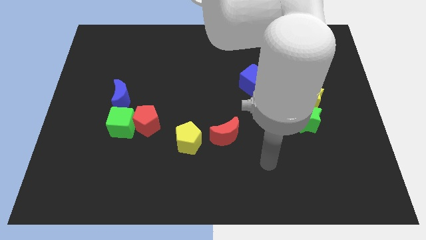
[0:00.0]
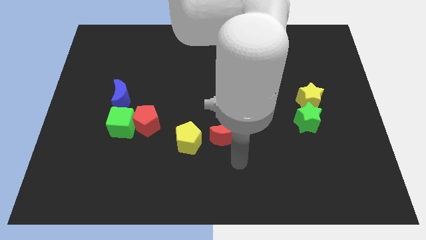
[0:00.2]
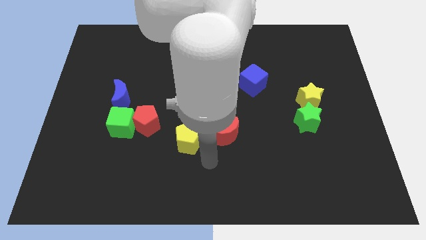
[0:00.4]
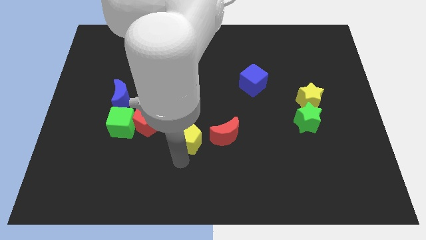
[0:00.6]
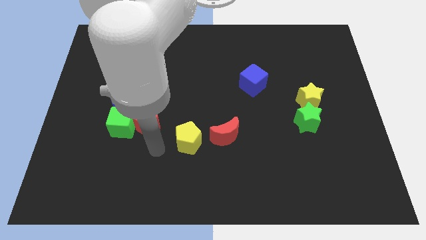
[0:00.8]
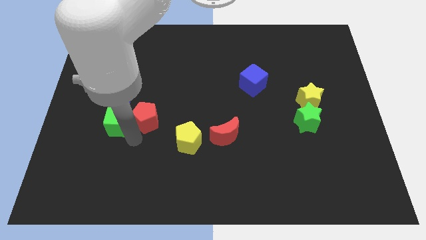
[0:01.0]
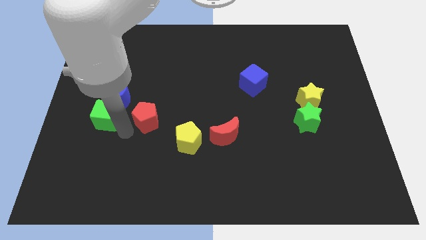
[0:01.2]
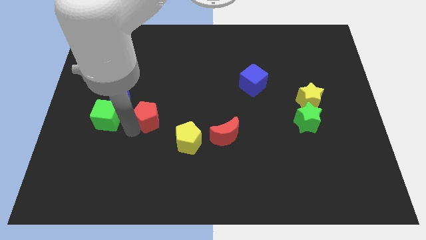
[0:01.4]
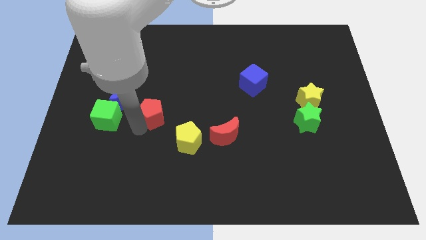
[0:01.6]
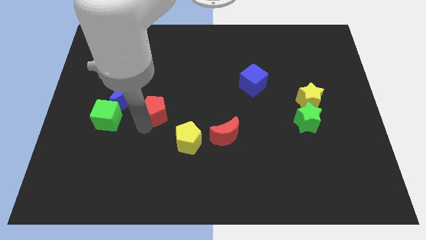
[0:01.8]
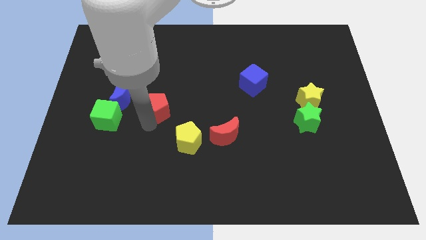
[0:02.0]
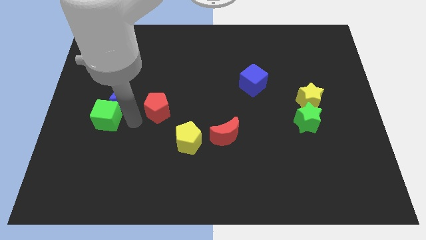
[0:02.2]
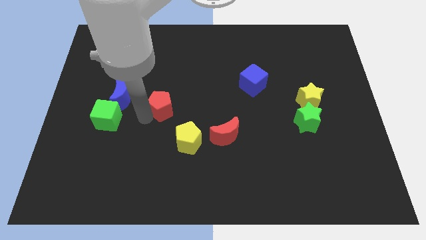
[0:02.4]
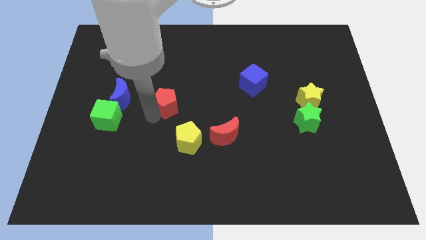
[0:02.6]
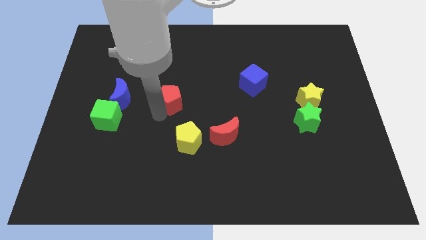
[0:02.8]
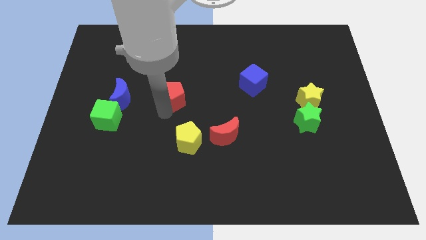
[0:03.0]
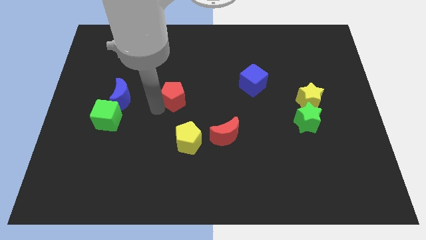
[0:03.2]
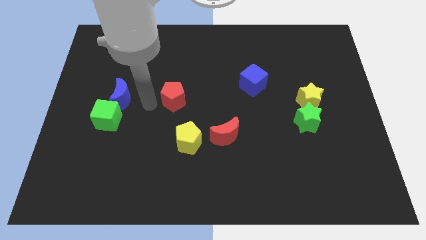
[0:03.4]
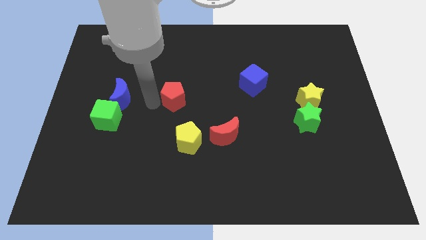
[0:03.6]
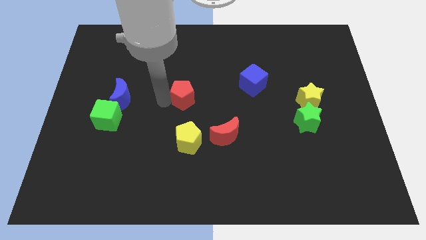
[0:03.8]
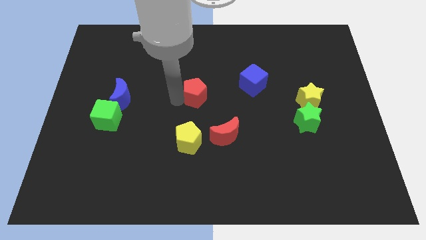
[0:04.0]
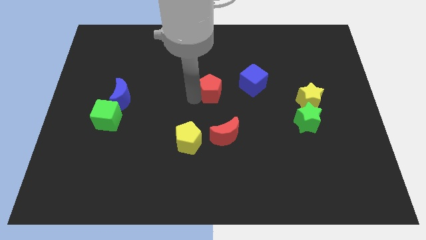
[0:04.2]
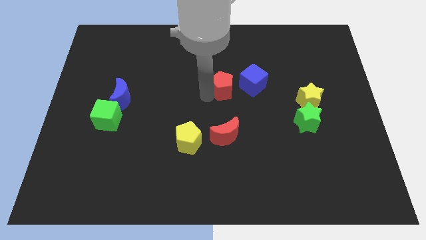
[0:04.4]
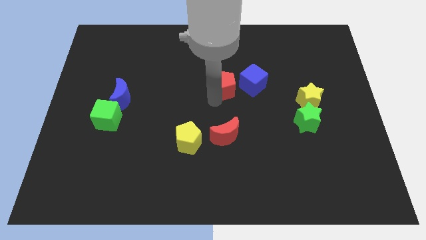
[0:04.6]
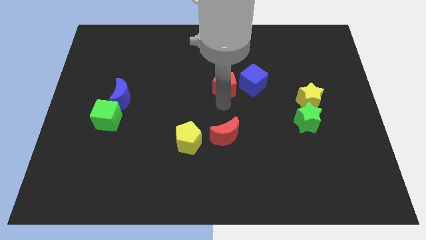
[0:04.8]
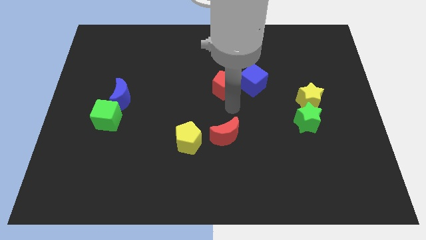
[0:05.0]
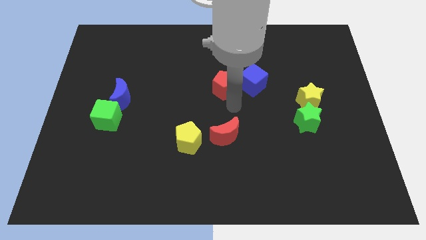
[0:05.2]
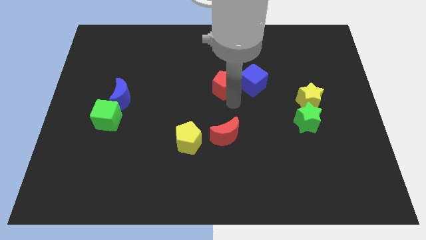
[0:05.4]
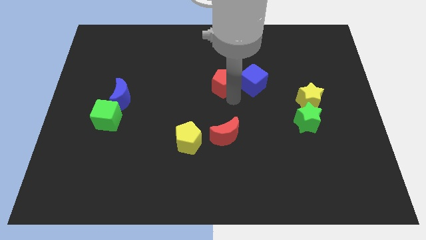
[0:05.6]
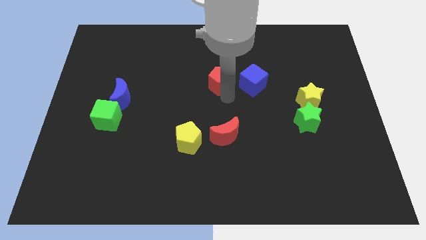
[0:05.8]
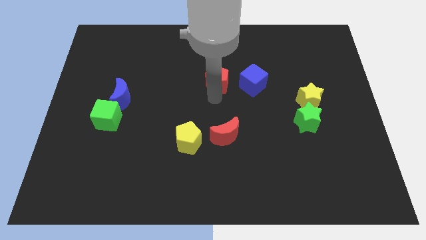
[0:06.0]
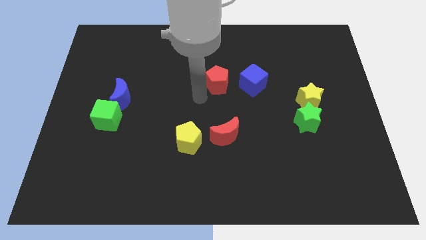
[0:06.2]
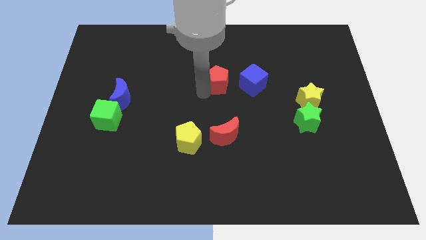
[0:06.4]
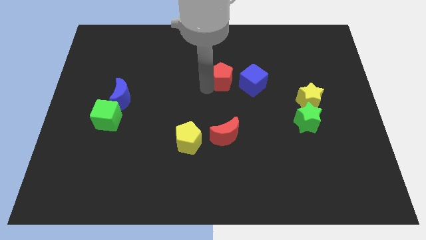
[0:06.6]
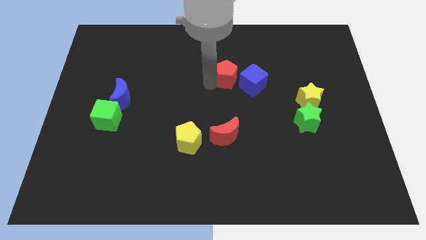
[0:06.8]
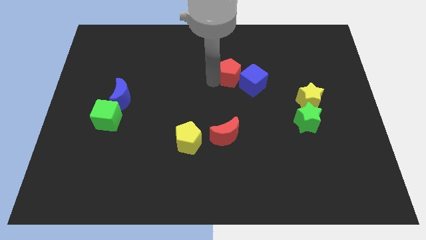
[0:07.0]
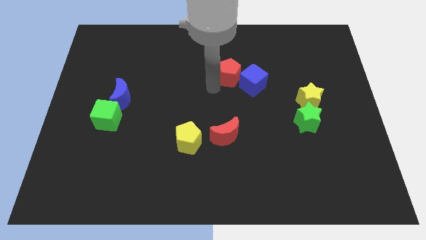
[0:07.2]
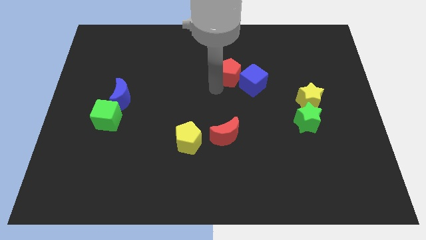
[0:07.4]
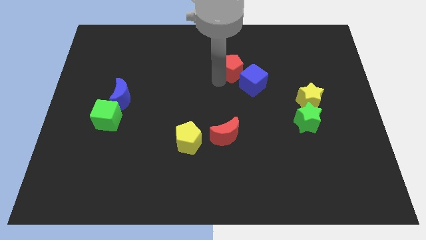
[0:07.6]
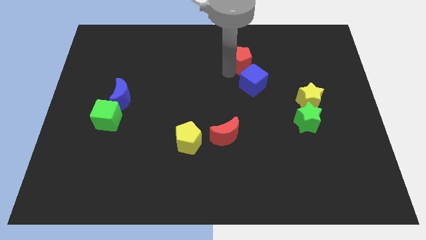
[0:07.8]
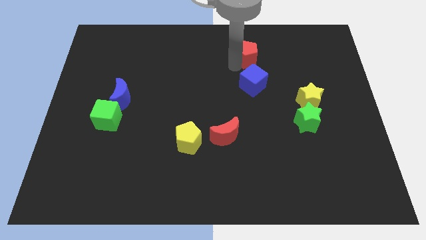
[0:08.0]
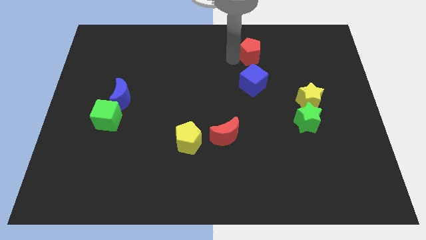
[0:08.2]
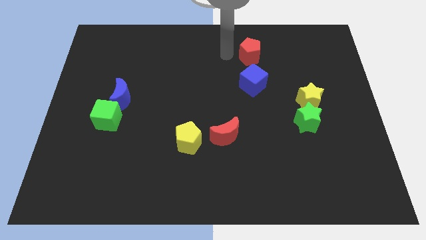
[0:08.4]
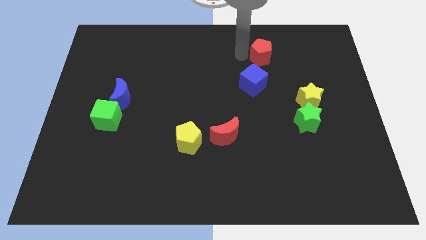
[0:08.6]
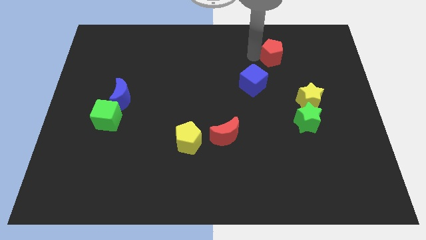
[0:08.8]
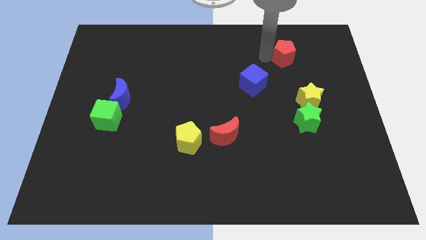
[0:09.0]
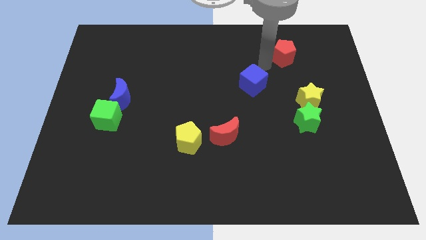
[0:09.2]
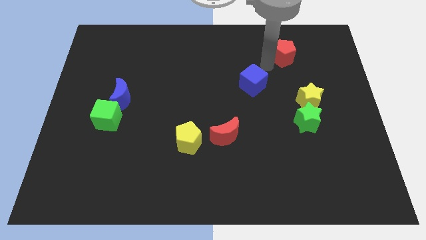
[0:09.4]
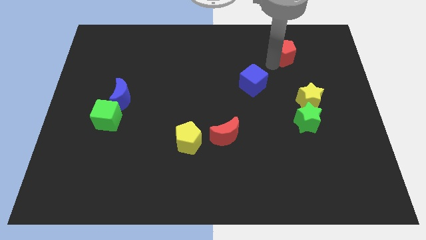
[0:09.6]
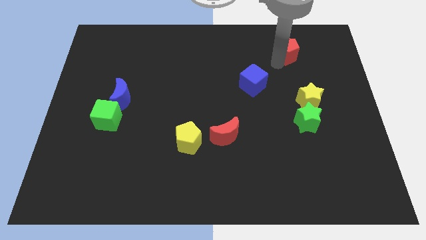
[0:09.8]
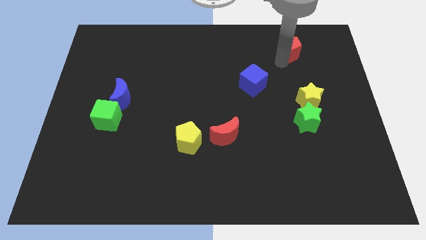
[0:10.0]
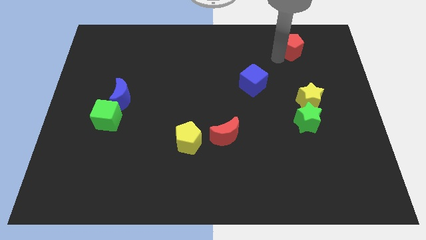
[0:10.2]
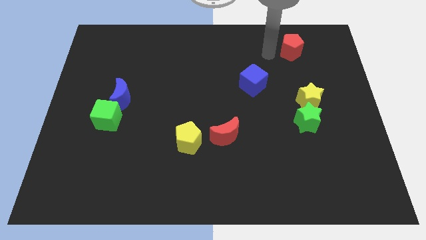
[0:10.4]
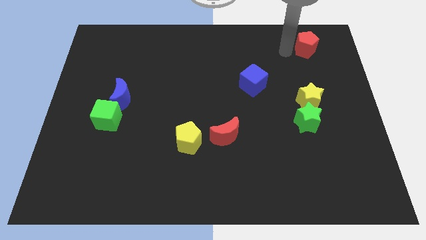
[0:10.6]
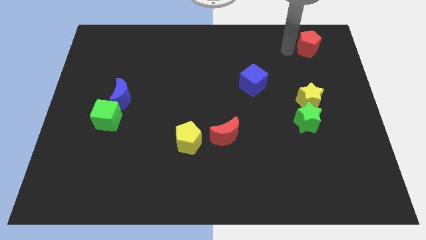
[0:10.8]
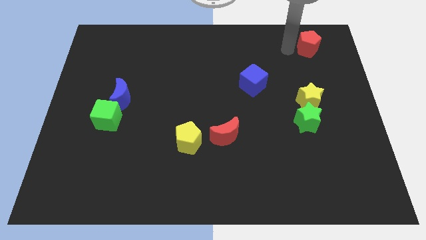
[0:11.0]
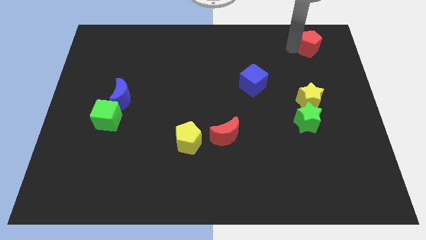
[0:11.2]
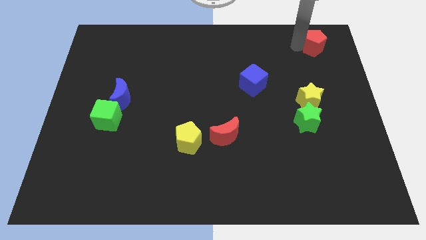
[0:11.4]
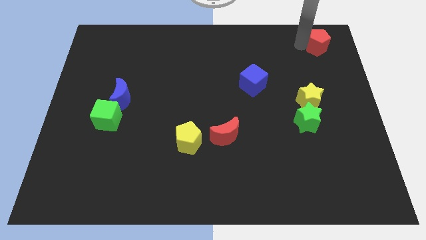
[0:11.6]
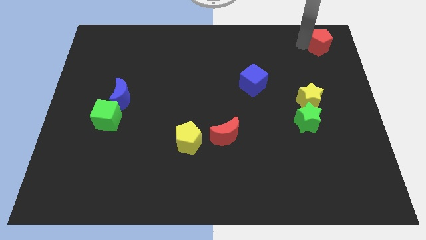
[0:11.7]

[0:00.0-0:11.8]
move the red pentagon to the top right

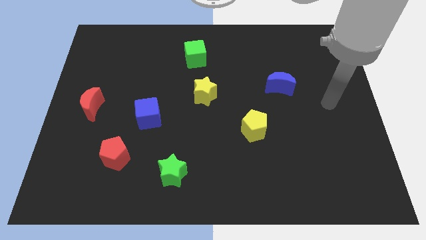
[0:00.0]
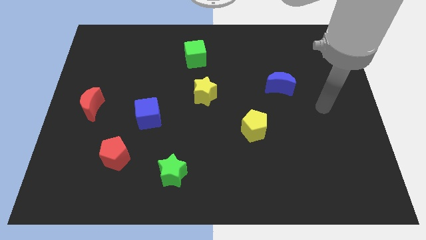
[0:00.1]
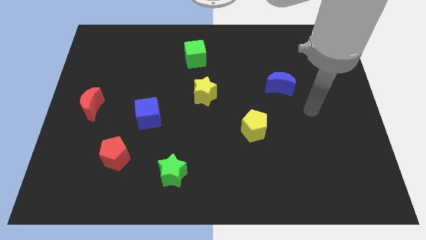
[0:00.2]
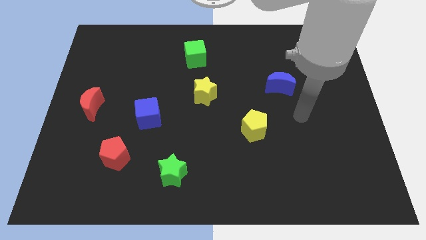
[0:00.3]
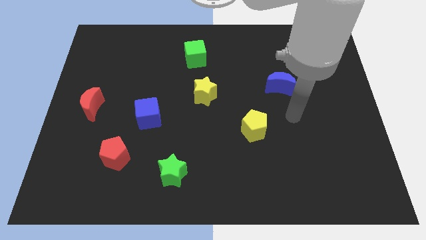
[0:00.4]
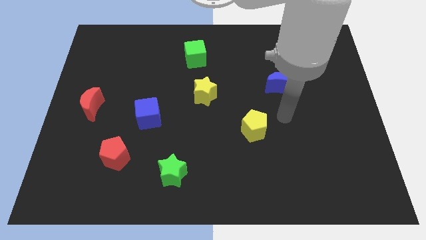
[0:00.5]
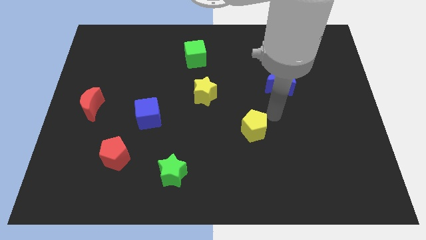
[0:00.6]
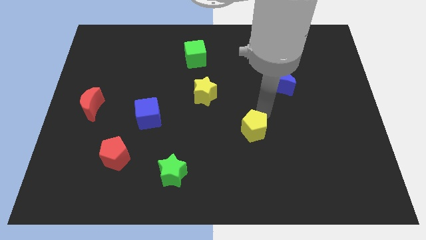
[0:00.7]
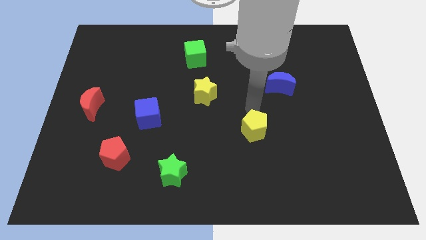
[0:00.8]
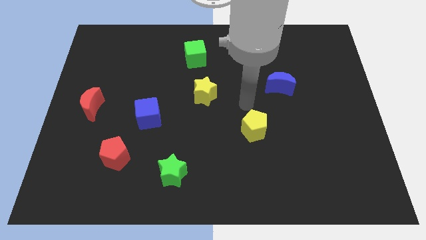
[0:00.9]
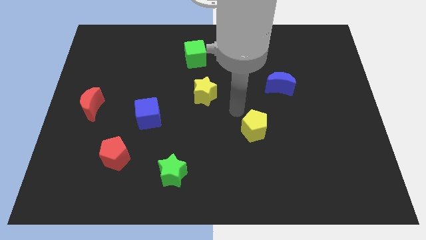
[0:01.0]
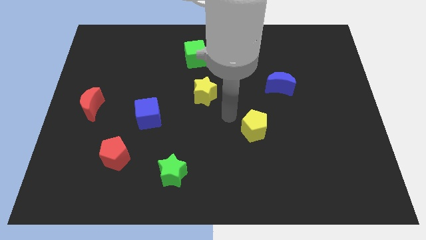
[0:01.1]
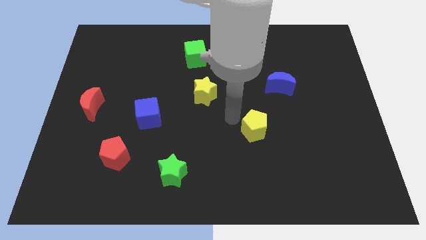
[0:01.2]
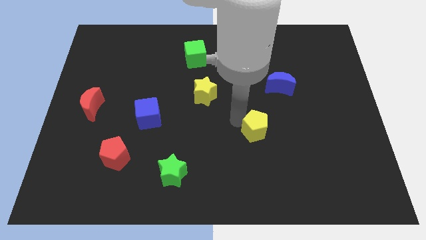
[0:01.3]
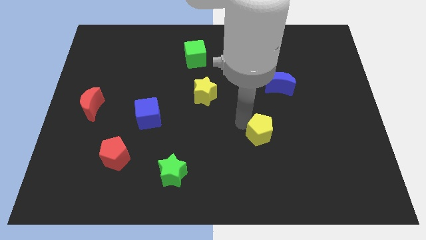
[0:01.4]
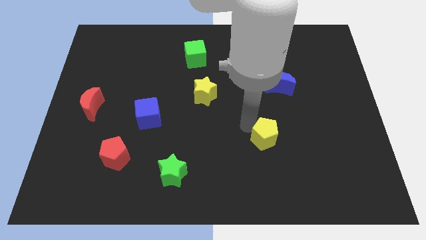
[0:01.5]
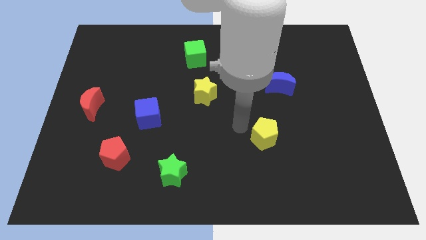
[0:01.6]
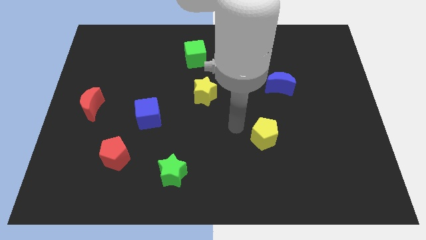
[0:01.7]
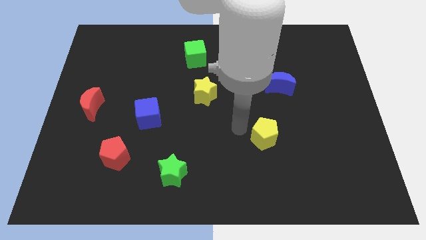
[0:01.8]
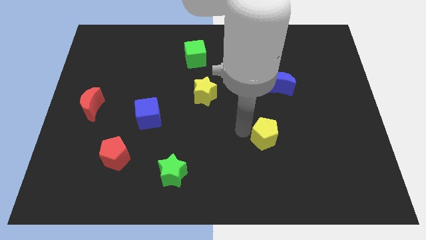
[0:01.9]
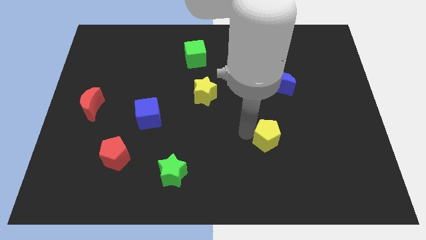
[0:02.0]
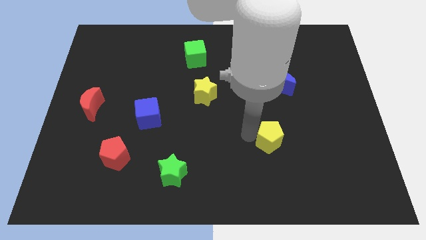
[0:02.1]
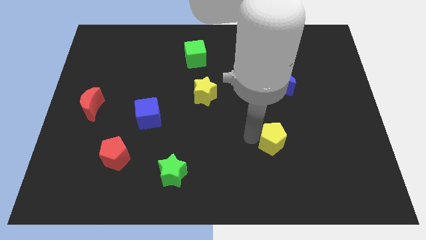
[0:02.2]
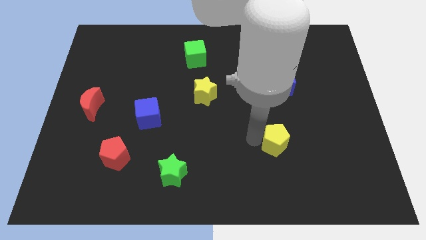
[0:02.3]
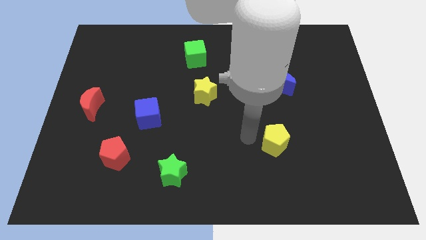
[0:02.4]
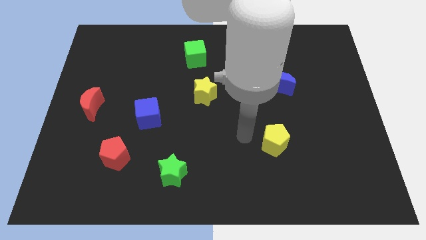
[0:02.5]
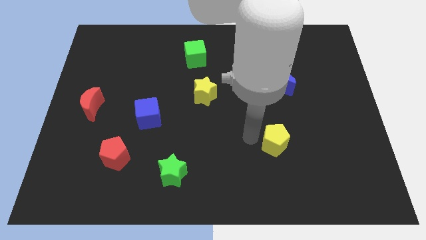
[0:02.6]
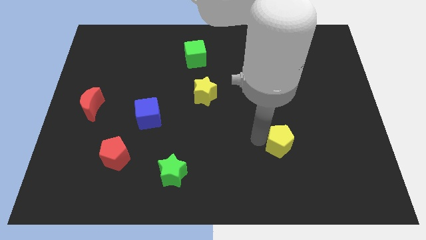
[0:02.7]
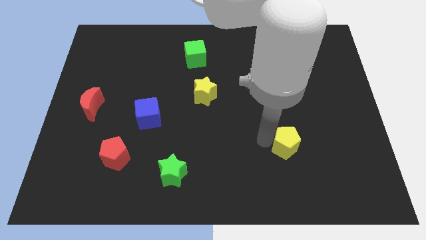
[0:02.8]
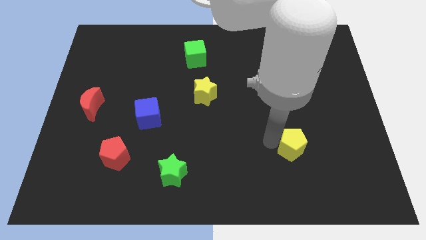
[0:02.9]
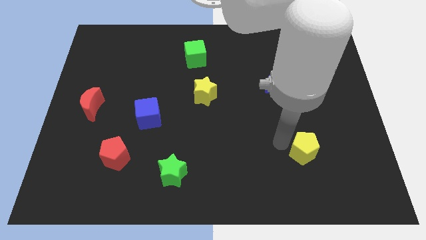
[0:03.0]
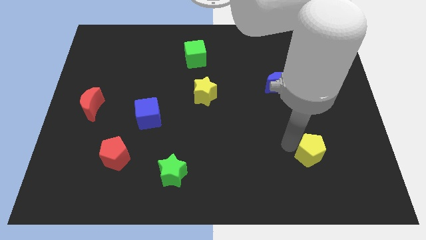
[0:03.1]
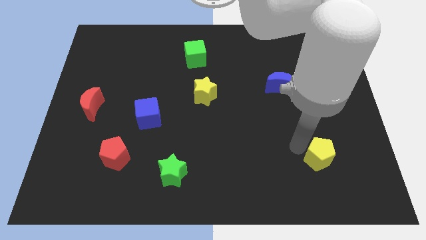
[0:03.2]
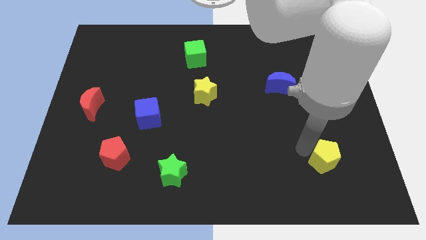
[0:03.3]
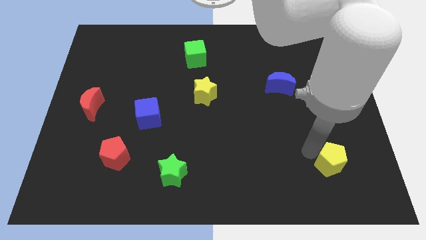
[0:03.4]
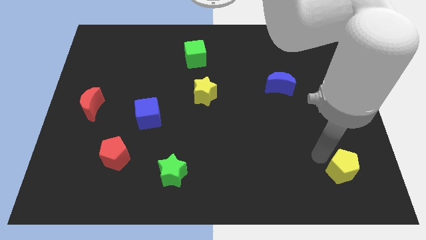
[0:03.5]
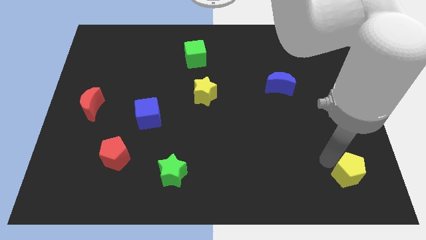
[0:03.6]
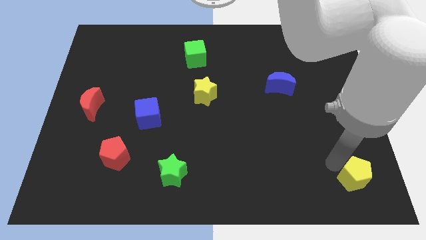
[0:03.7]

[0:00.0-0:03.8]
push the yellow pentagon to the bottom right of the board
